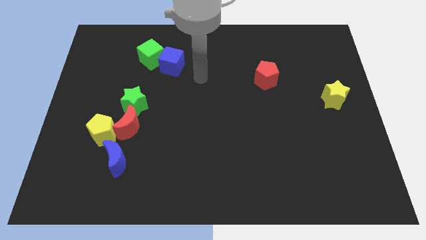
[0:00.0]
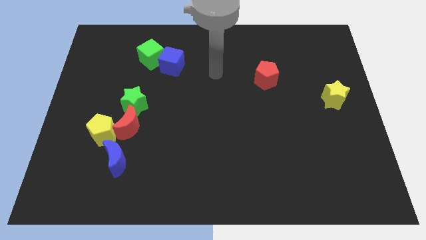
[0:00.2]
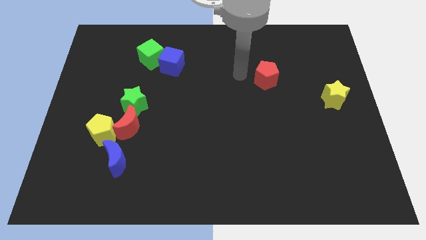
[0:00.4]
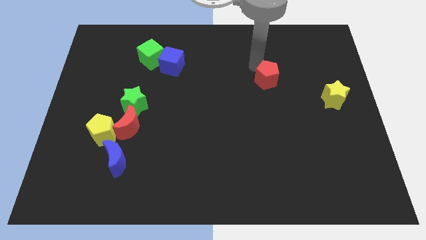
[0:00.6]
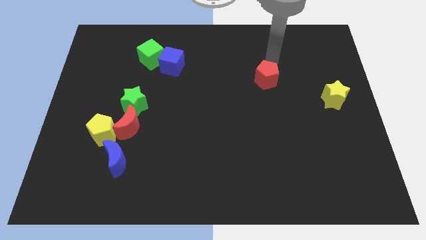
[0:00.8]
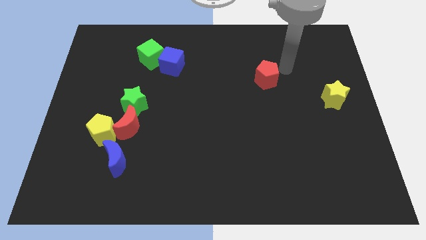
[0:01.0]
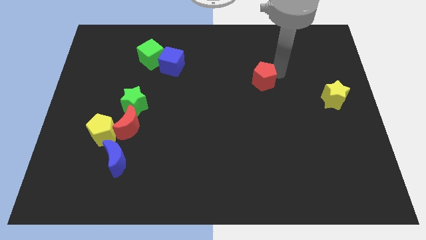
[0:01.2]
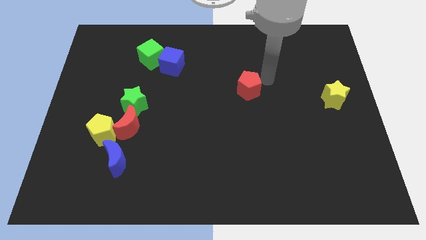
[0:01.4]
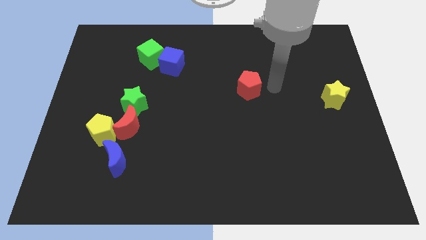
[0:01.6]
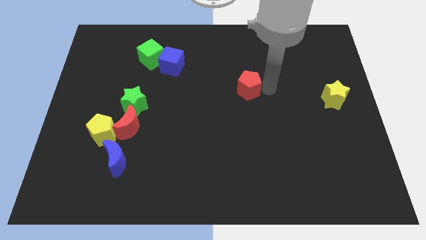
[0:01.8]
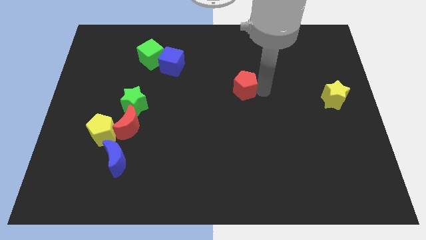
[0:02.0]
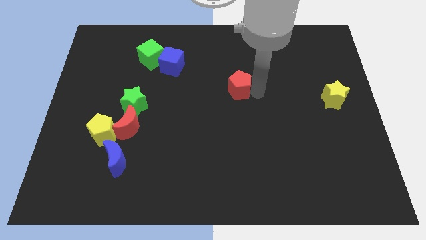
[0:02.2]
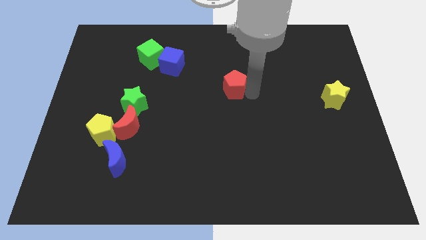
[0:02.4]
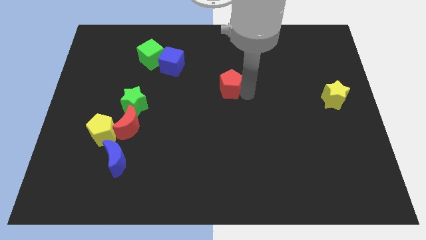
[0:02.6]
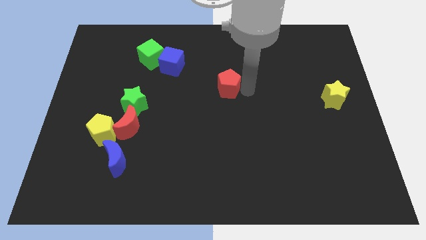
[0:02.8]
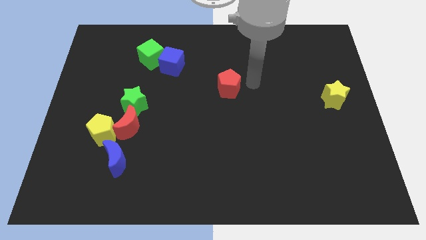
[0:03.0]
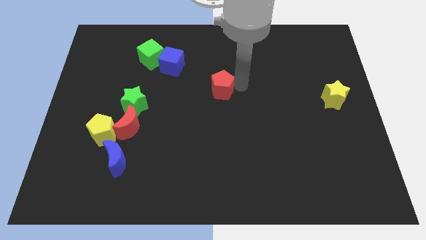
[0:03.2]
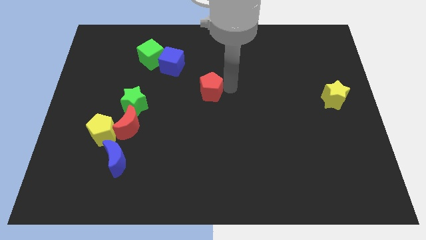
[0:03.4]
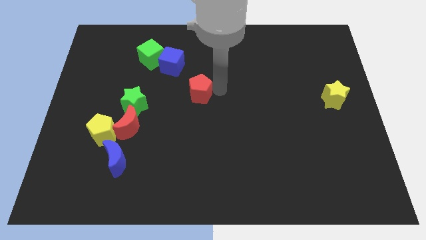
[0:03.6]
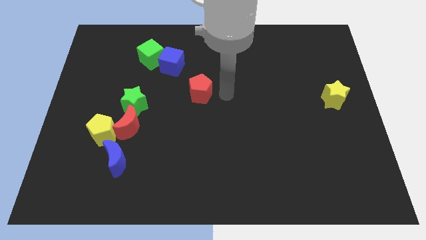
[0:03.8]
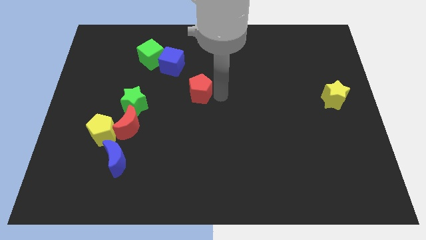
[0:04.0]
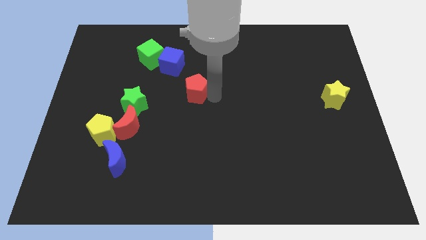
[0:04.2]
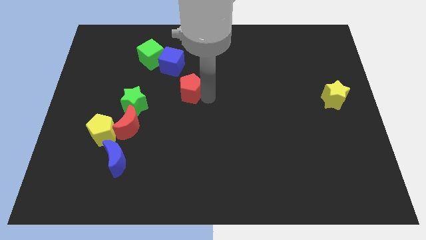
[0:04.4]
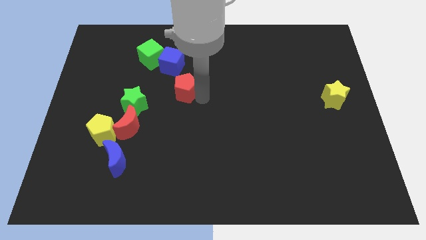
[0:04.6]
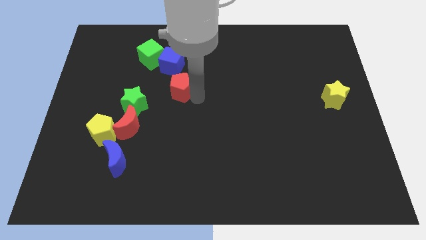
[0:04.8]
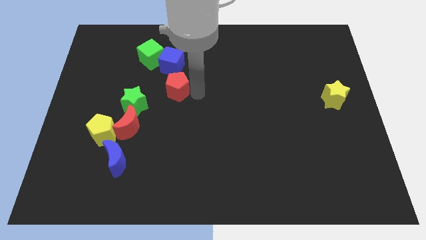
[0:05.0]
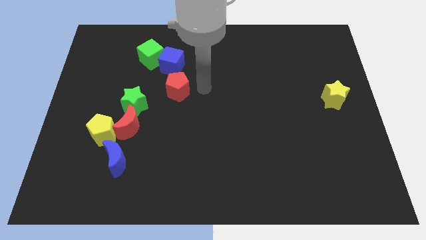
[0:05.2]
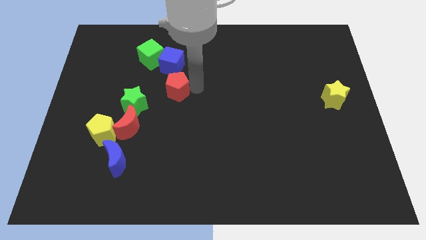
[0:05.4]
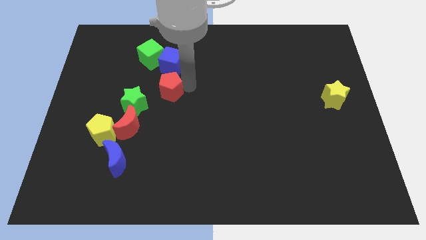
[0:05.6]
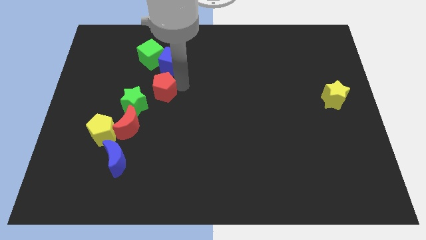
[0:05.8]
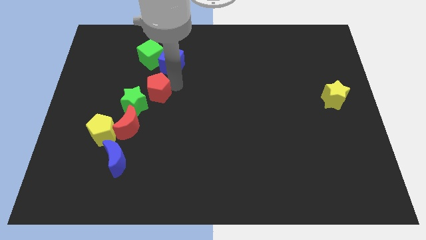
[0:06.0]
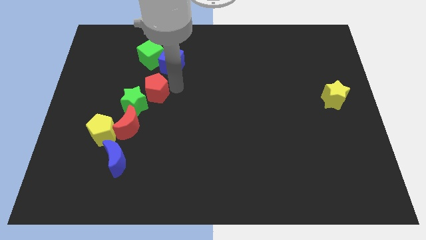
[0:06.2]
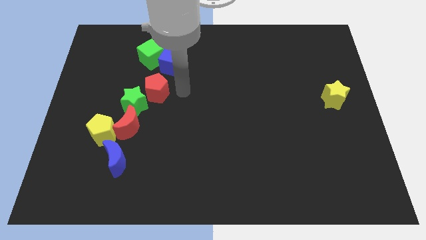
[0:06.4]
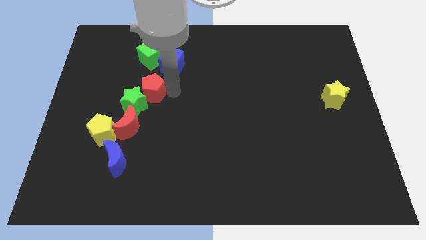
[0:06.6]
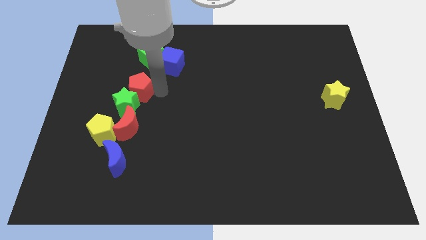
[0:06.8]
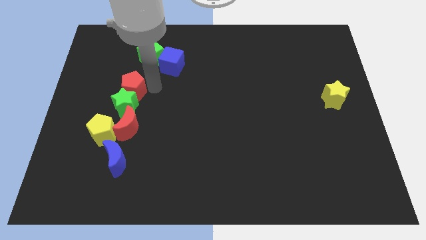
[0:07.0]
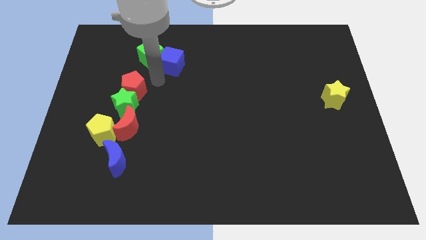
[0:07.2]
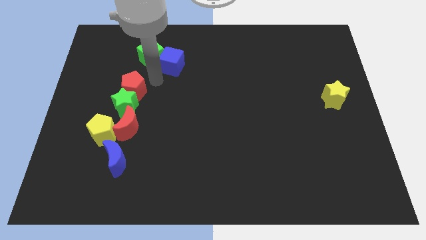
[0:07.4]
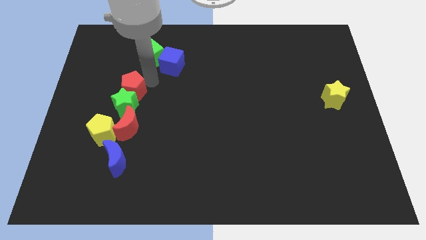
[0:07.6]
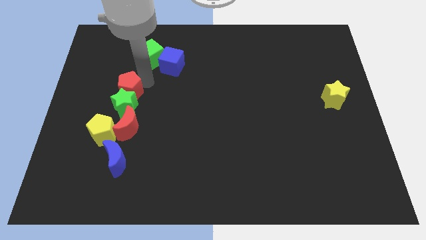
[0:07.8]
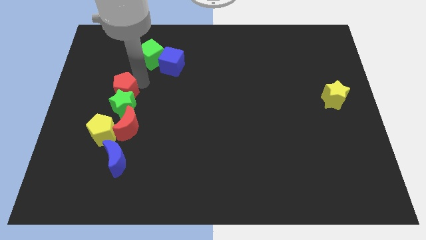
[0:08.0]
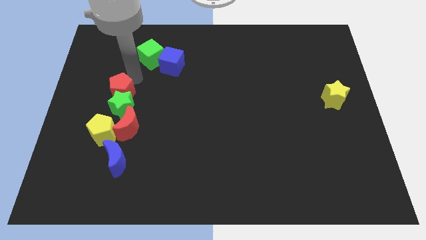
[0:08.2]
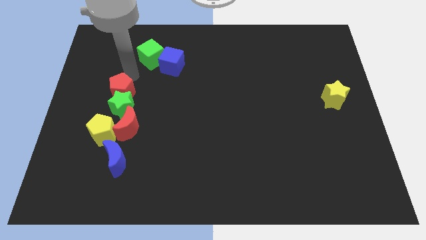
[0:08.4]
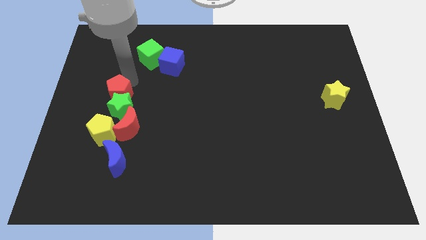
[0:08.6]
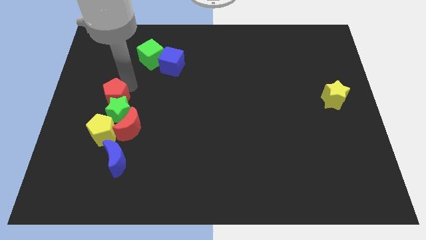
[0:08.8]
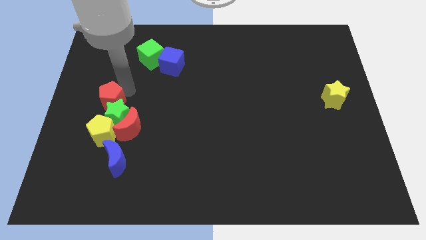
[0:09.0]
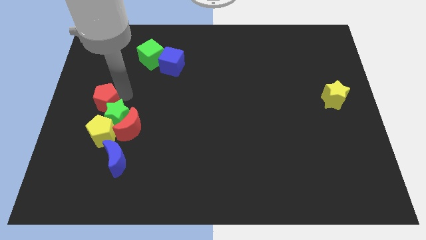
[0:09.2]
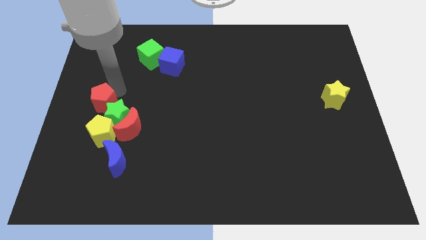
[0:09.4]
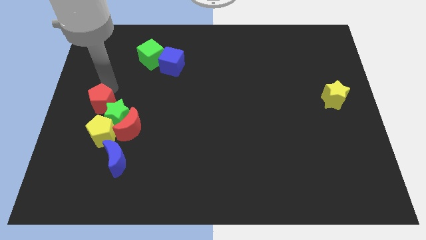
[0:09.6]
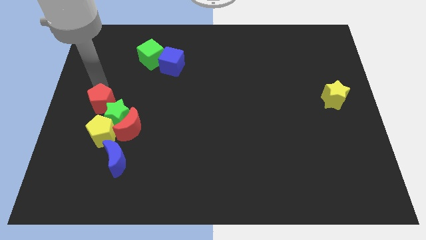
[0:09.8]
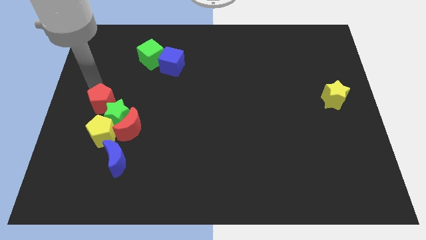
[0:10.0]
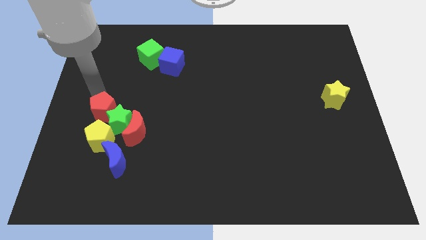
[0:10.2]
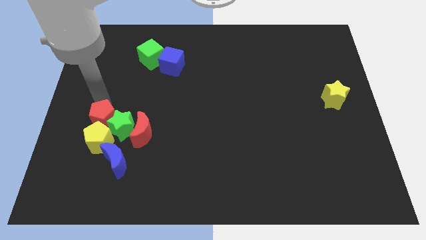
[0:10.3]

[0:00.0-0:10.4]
slide the red pentagon to the yellow pentagon

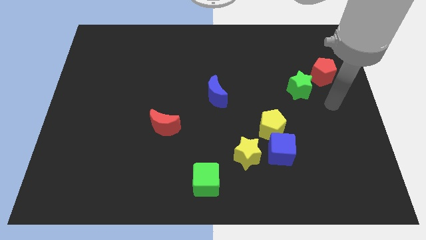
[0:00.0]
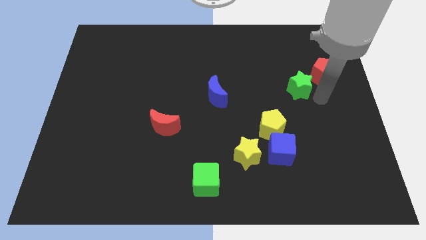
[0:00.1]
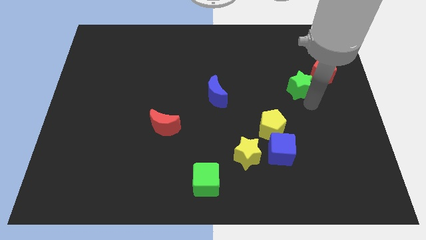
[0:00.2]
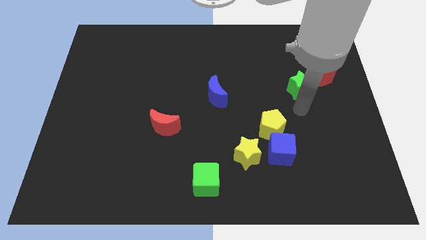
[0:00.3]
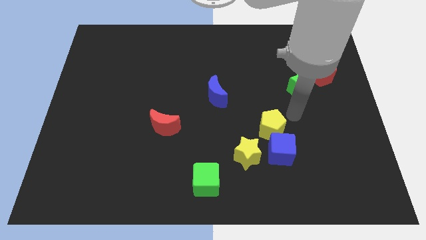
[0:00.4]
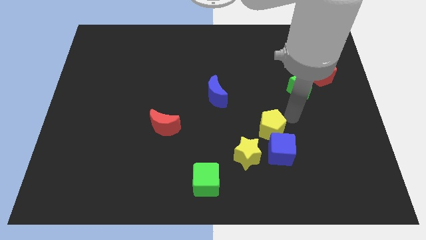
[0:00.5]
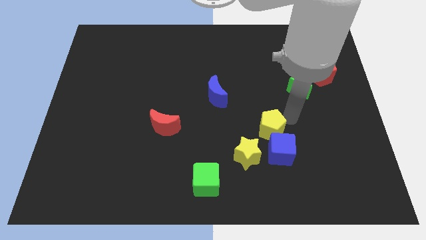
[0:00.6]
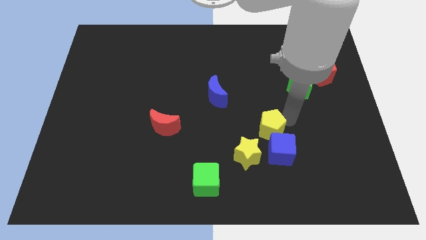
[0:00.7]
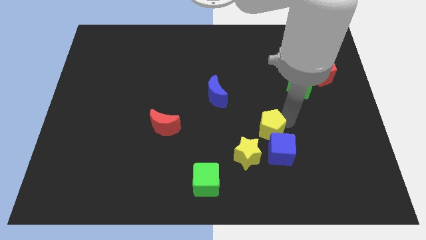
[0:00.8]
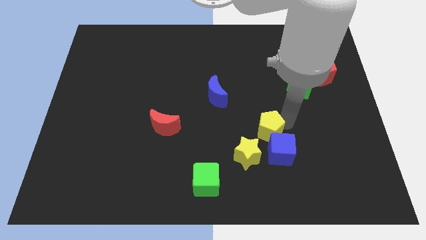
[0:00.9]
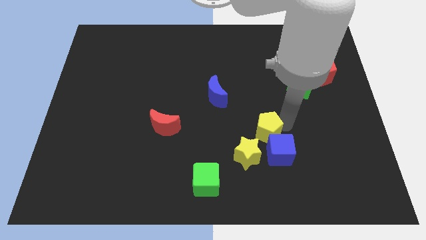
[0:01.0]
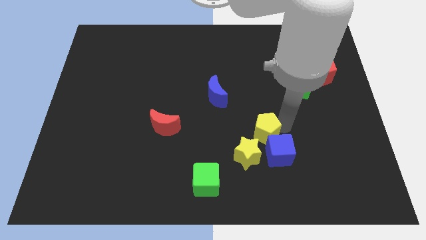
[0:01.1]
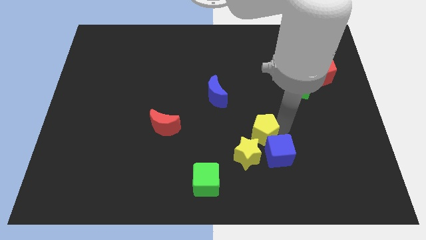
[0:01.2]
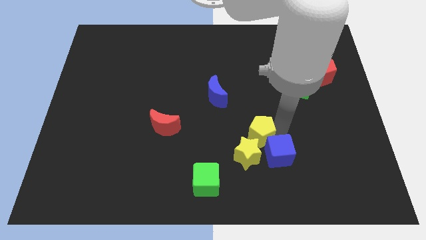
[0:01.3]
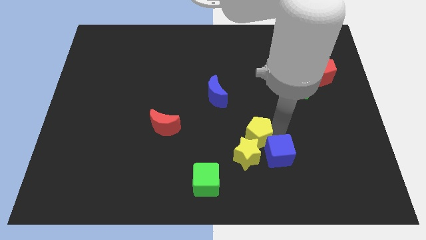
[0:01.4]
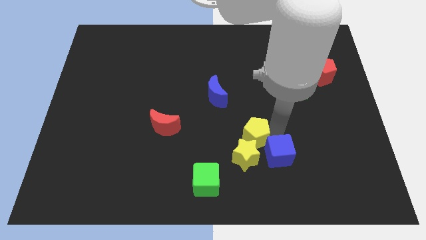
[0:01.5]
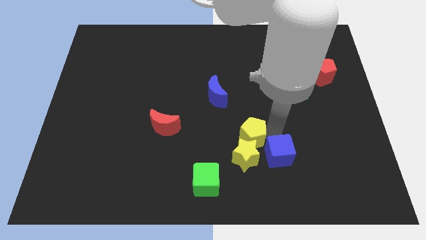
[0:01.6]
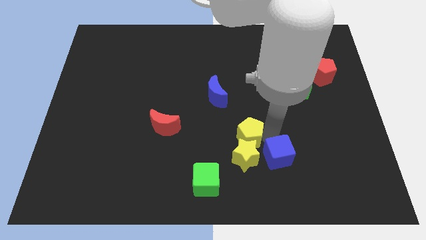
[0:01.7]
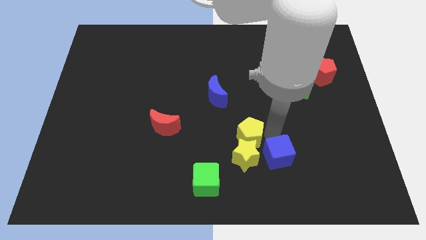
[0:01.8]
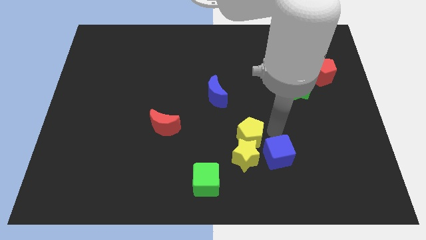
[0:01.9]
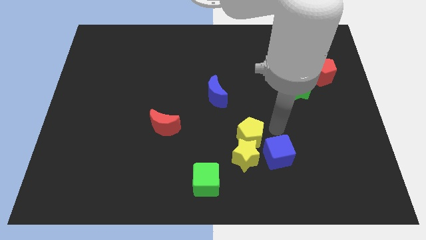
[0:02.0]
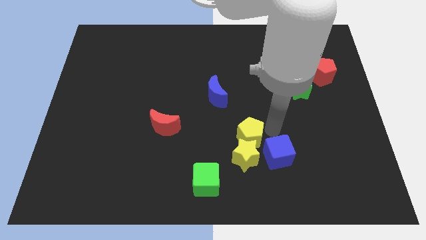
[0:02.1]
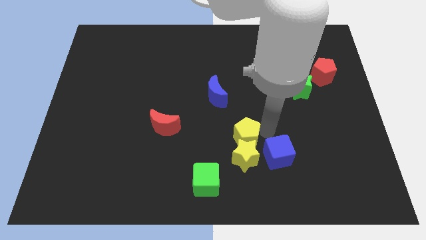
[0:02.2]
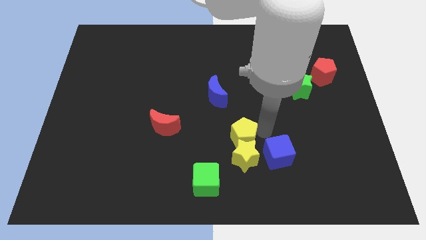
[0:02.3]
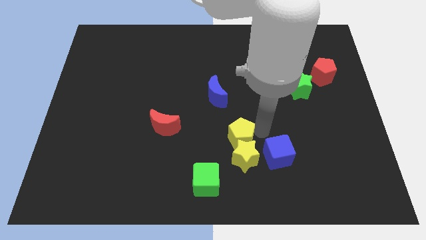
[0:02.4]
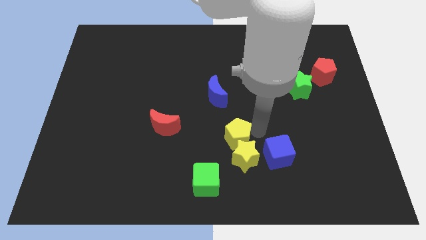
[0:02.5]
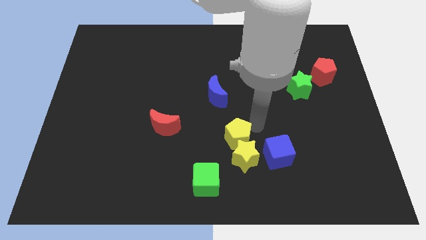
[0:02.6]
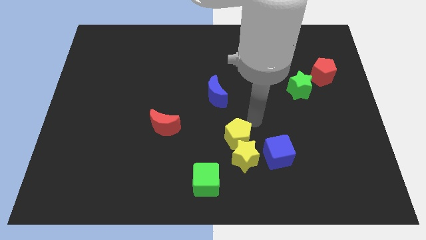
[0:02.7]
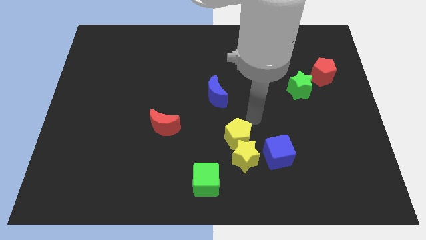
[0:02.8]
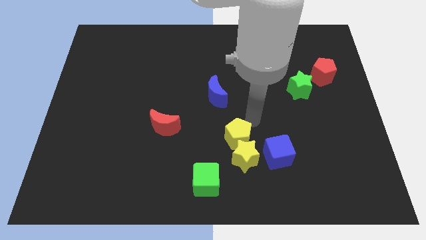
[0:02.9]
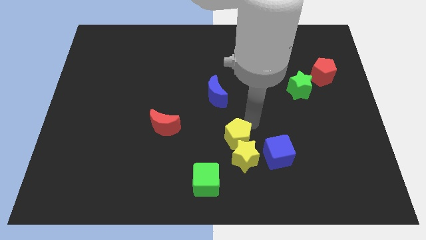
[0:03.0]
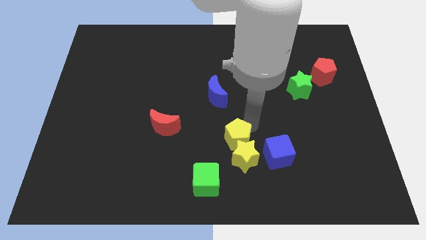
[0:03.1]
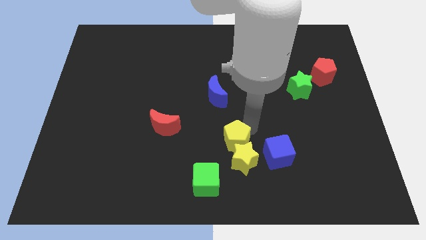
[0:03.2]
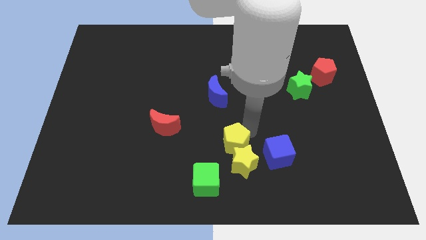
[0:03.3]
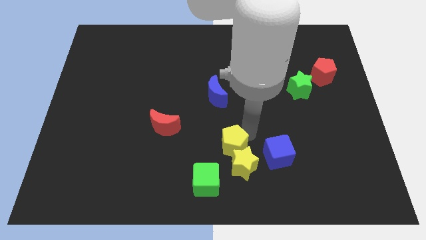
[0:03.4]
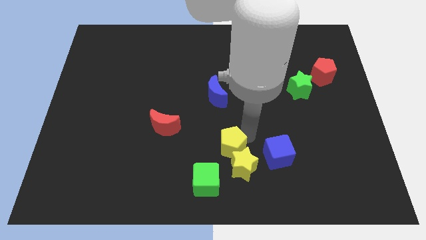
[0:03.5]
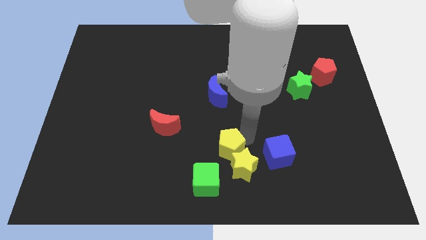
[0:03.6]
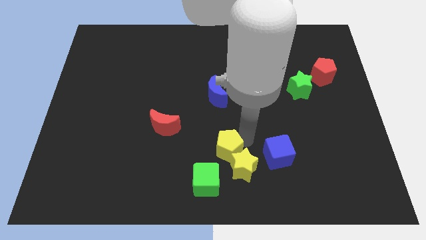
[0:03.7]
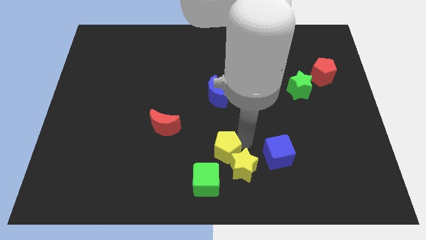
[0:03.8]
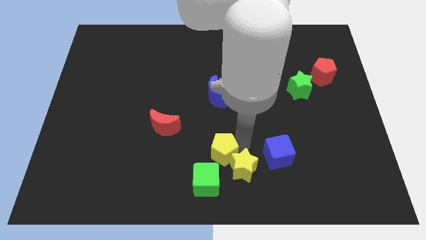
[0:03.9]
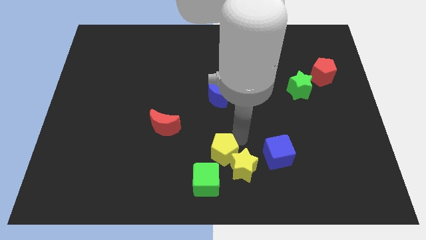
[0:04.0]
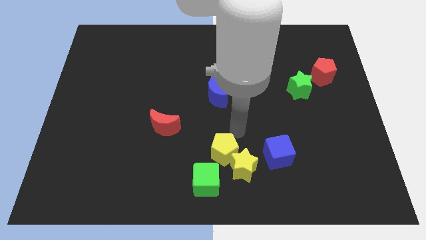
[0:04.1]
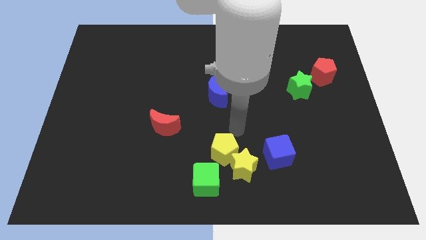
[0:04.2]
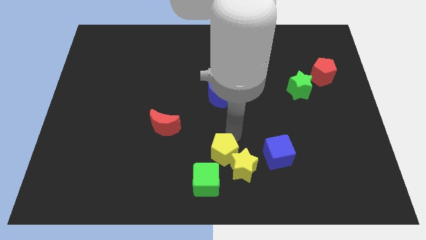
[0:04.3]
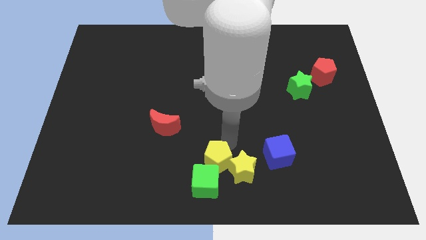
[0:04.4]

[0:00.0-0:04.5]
slide the yellow pentagon close to the green cube
